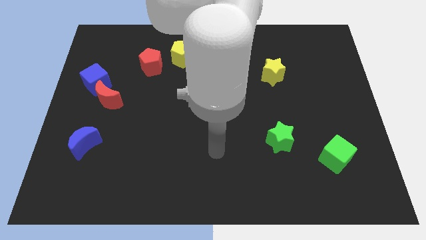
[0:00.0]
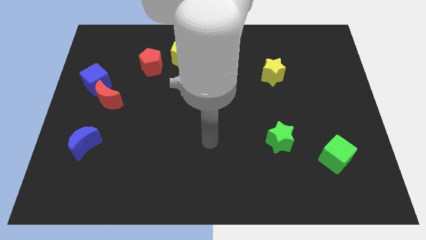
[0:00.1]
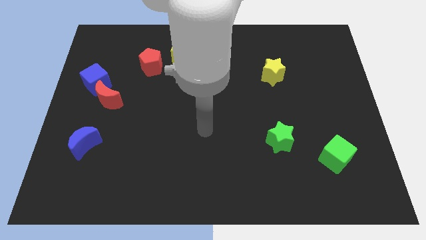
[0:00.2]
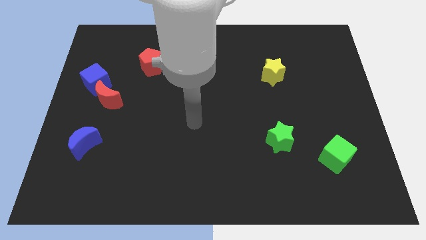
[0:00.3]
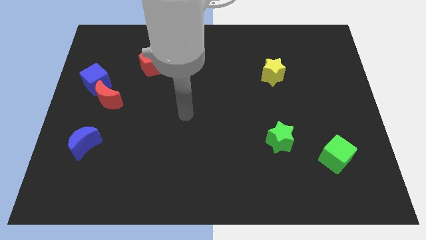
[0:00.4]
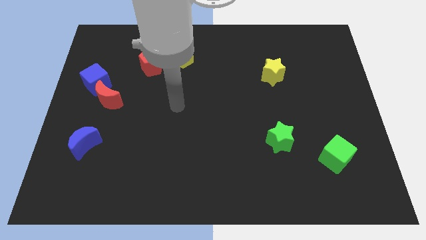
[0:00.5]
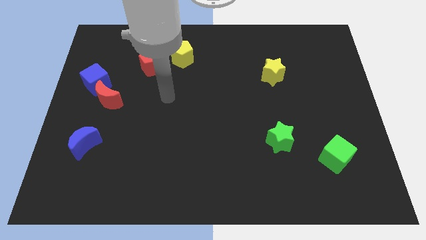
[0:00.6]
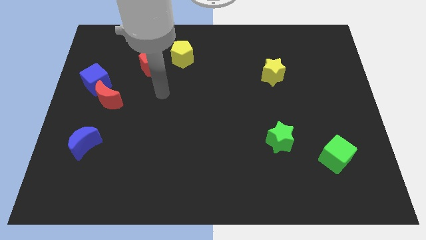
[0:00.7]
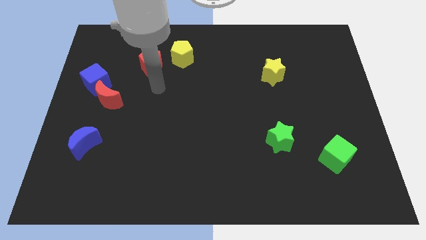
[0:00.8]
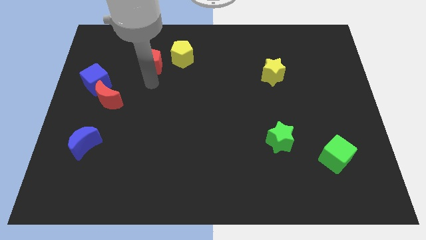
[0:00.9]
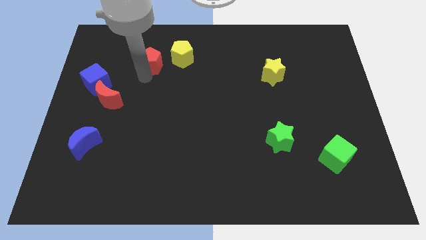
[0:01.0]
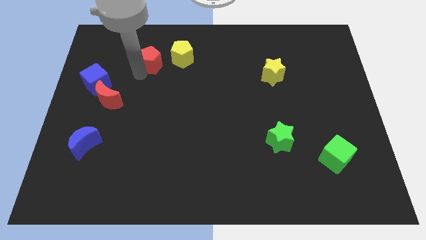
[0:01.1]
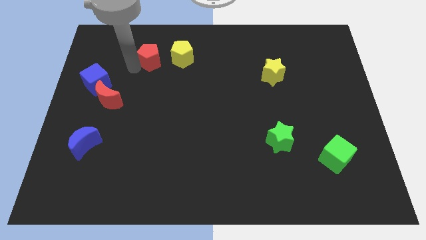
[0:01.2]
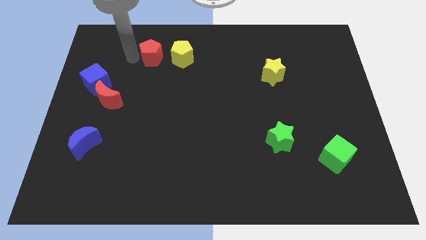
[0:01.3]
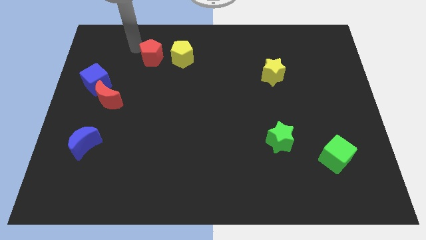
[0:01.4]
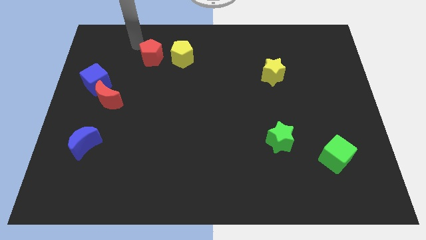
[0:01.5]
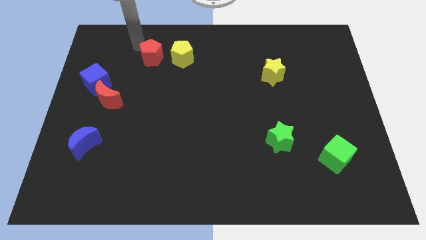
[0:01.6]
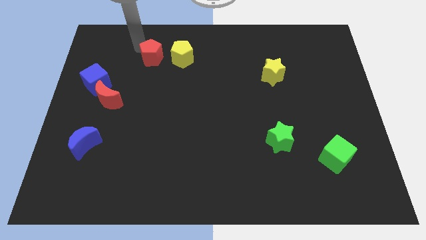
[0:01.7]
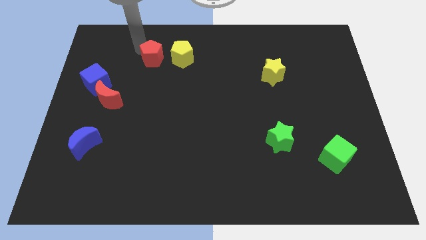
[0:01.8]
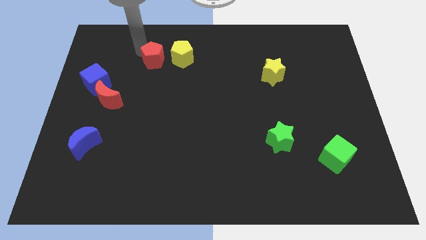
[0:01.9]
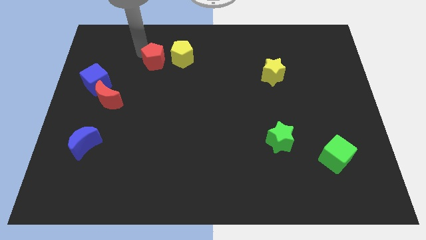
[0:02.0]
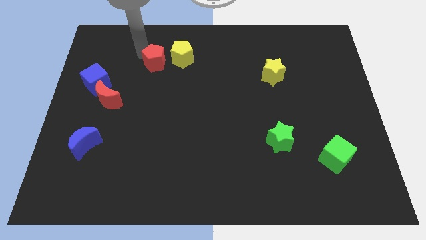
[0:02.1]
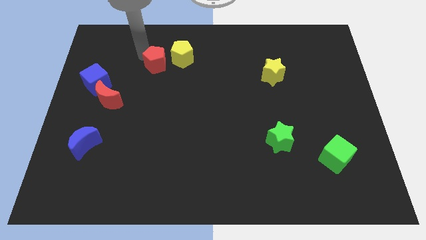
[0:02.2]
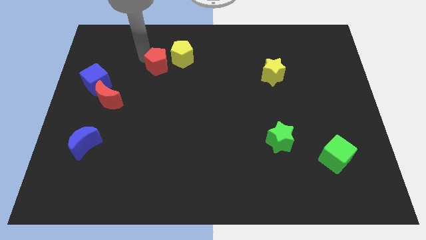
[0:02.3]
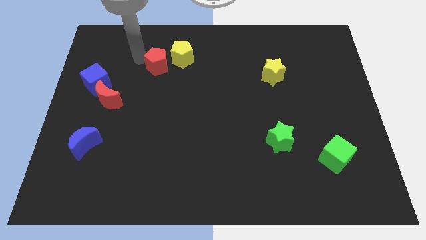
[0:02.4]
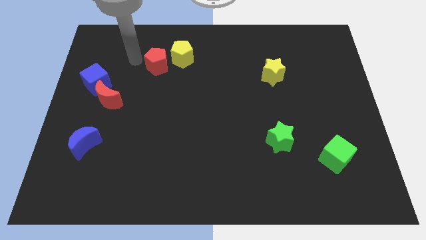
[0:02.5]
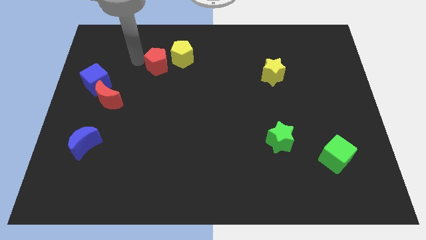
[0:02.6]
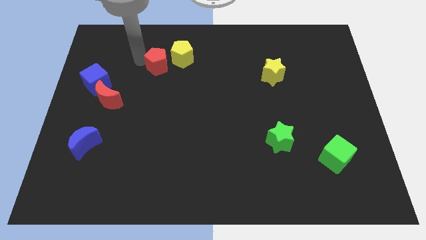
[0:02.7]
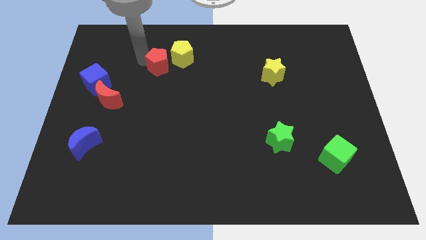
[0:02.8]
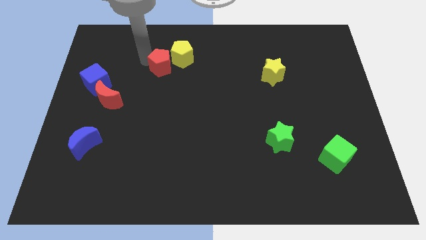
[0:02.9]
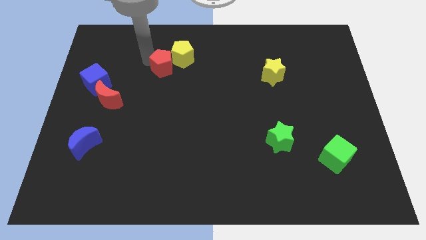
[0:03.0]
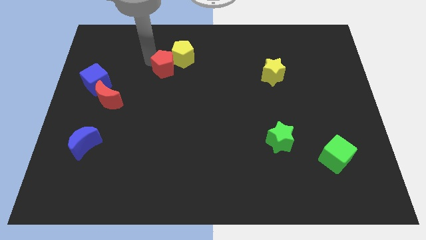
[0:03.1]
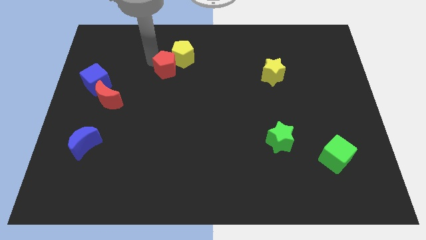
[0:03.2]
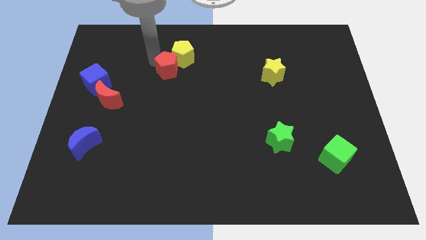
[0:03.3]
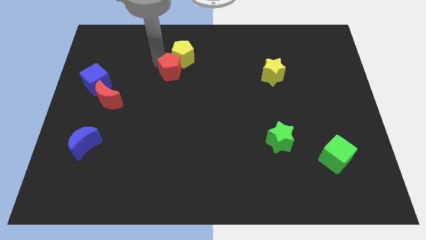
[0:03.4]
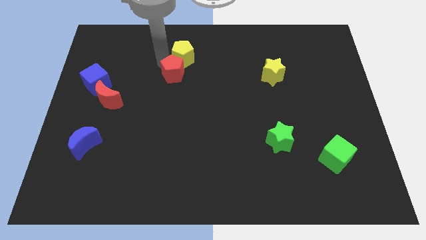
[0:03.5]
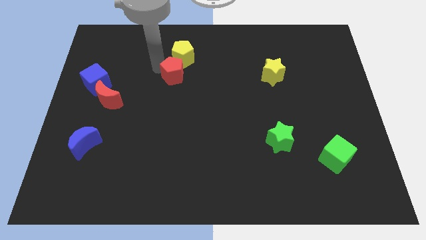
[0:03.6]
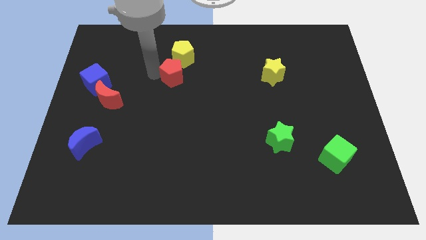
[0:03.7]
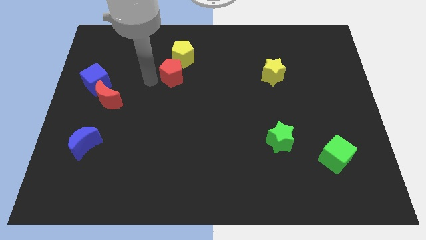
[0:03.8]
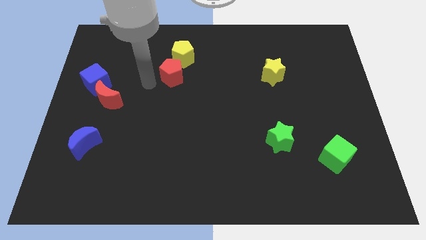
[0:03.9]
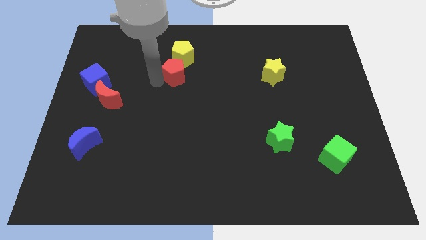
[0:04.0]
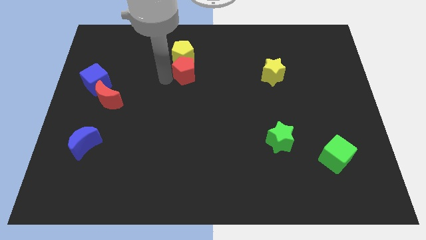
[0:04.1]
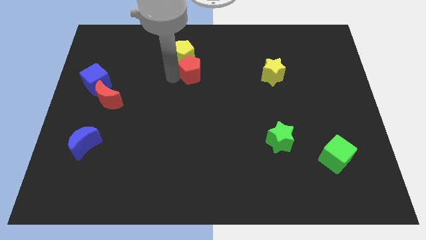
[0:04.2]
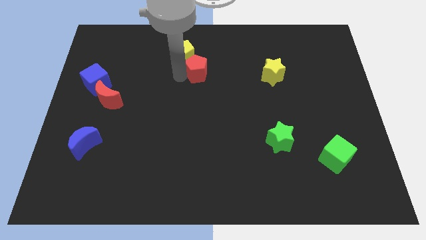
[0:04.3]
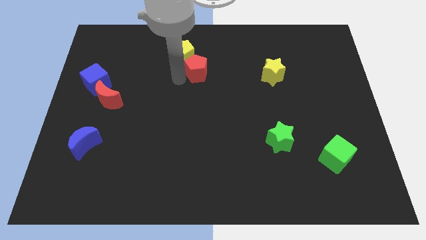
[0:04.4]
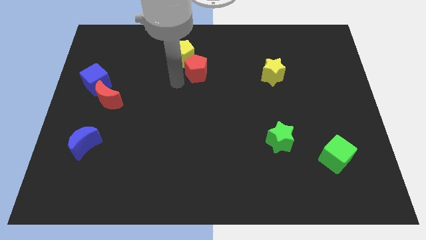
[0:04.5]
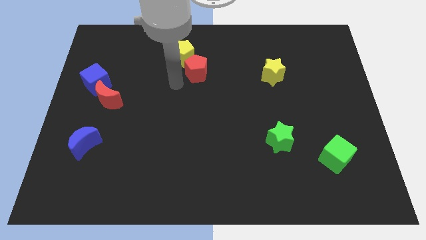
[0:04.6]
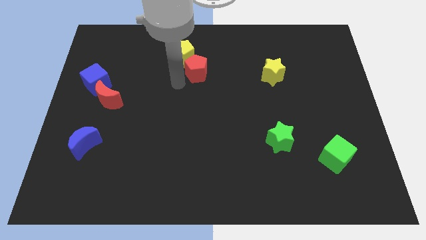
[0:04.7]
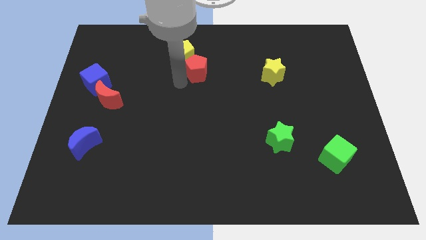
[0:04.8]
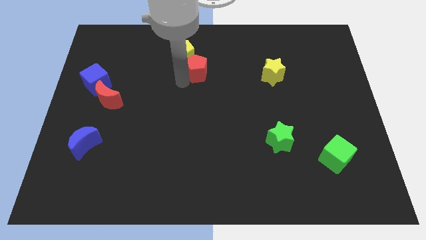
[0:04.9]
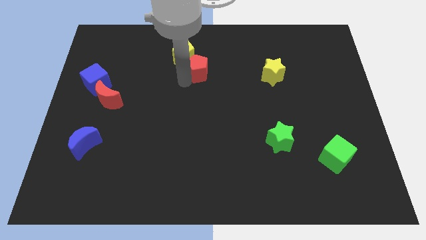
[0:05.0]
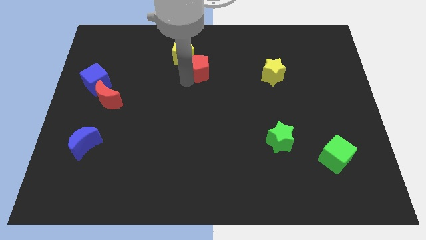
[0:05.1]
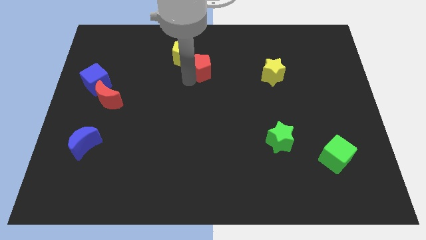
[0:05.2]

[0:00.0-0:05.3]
put the red pentagon just right of the yellow pentagon

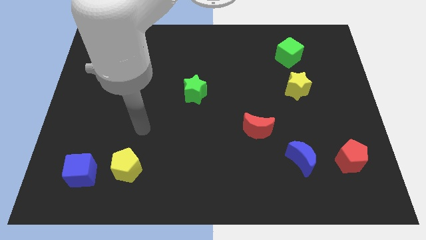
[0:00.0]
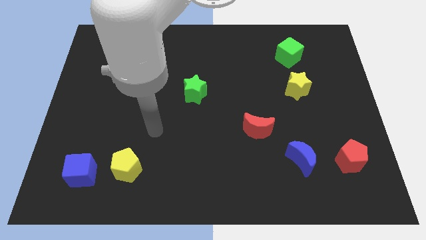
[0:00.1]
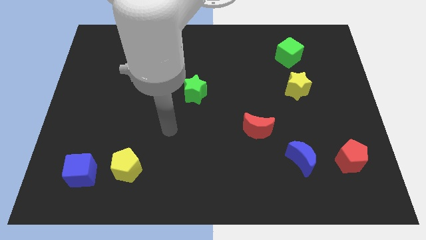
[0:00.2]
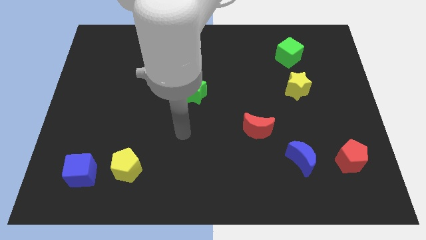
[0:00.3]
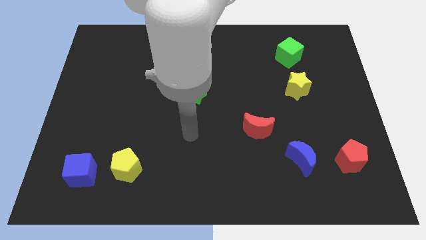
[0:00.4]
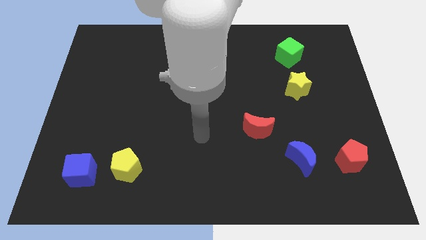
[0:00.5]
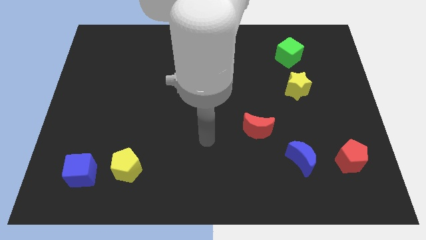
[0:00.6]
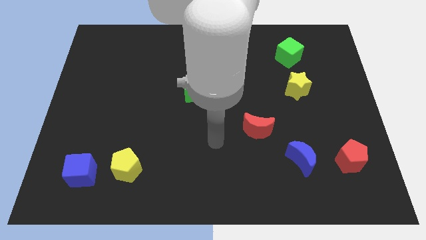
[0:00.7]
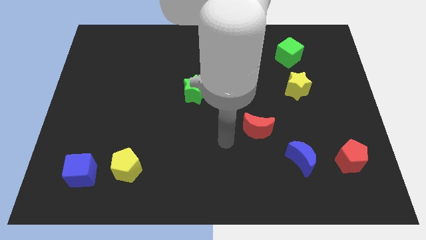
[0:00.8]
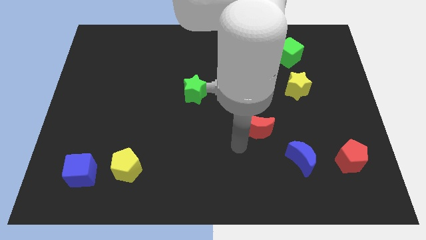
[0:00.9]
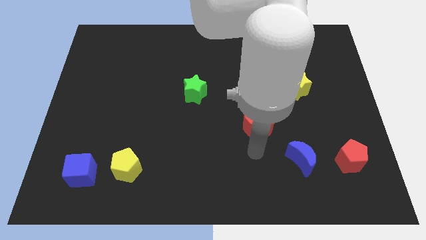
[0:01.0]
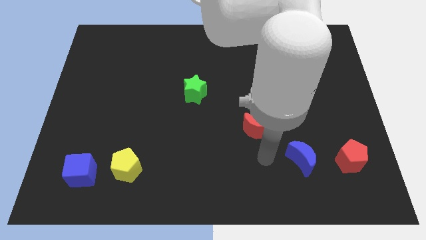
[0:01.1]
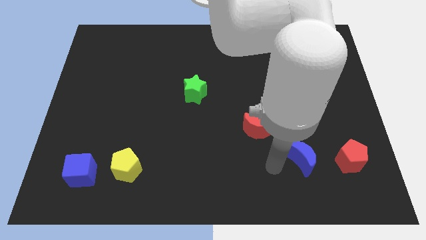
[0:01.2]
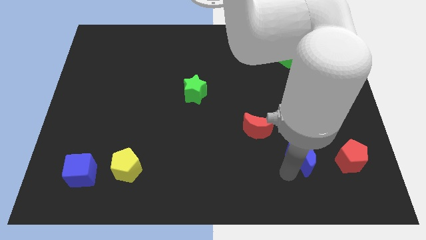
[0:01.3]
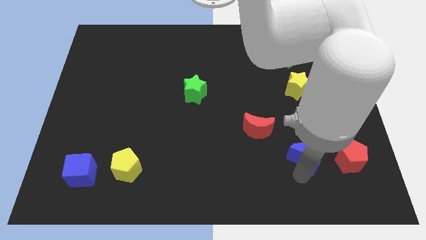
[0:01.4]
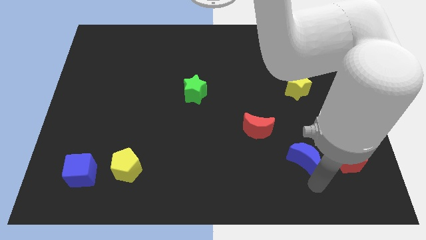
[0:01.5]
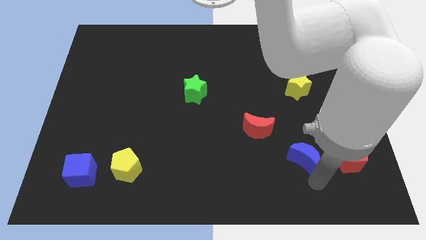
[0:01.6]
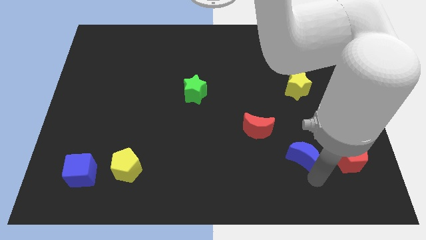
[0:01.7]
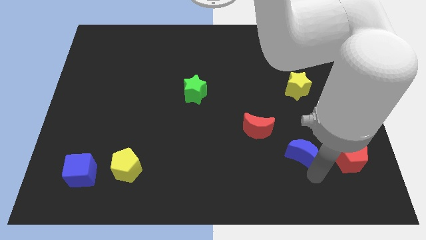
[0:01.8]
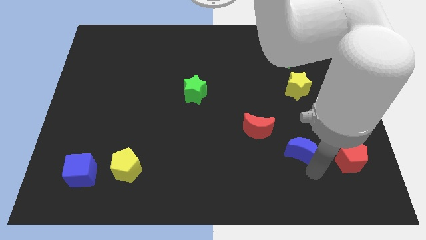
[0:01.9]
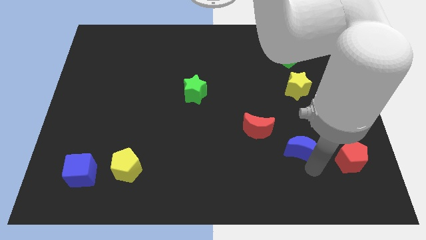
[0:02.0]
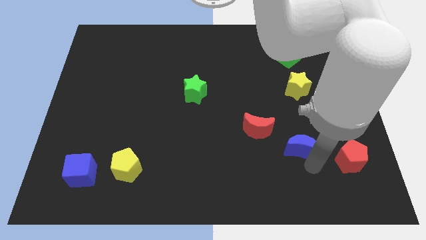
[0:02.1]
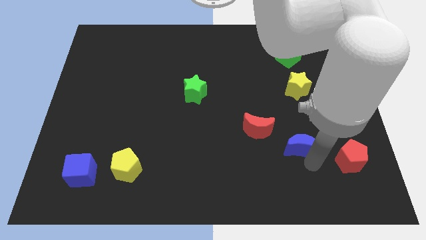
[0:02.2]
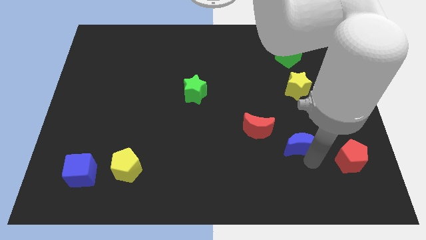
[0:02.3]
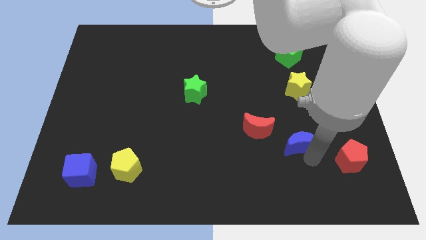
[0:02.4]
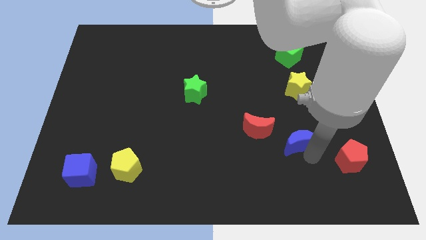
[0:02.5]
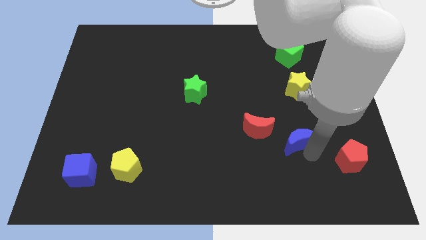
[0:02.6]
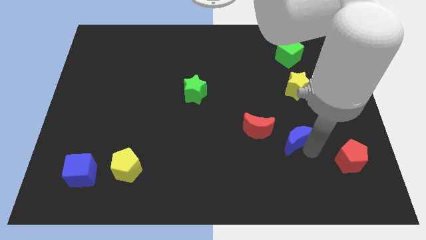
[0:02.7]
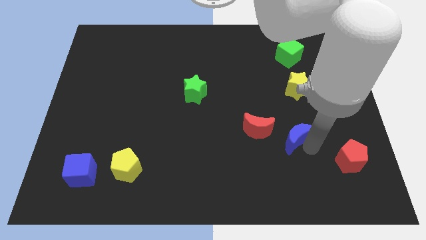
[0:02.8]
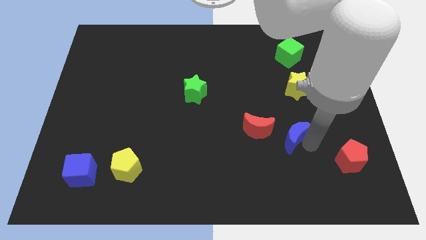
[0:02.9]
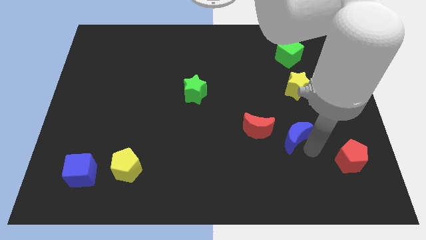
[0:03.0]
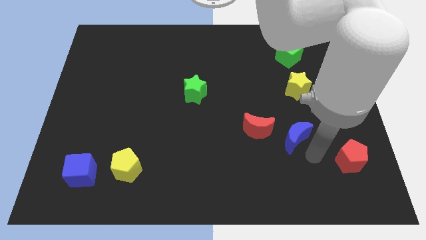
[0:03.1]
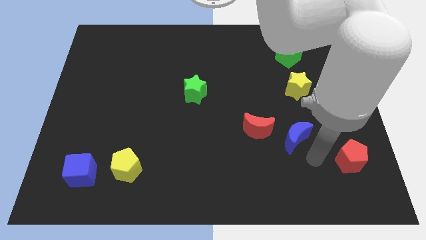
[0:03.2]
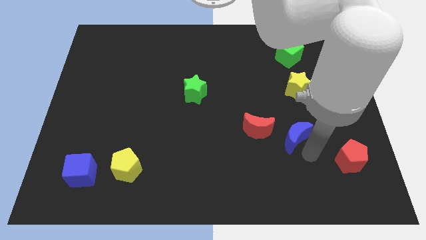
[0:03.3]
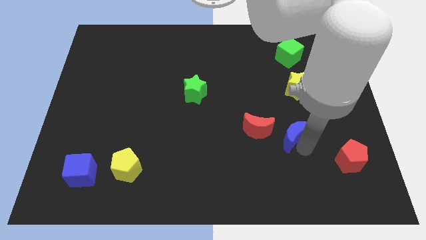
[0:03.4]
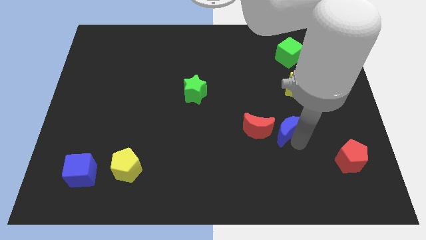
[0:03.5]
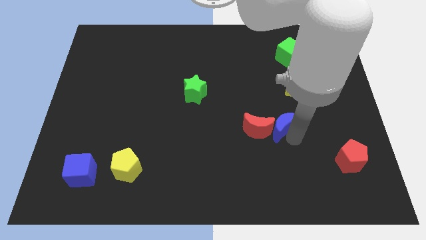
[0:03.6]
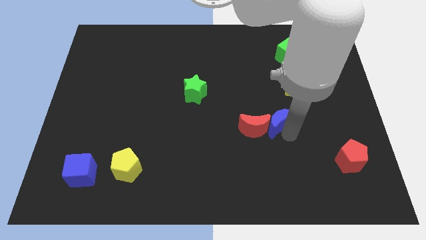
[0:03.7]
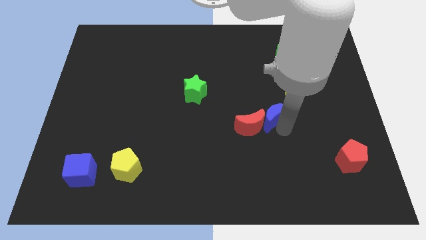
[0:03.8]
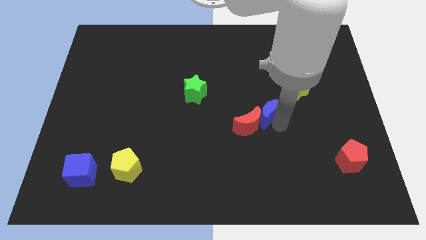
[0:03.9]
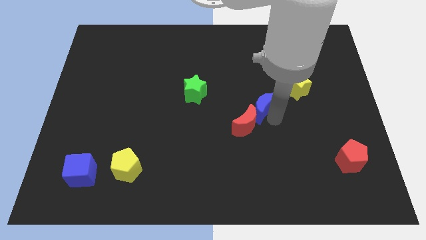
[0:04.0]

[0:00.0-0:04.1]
put the blue moon to the top of the red moon
